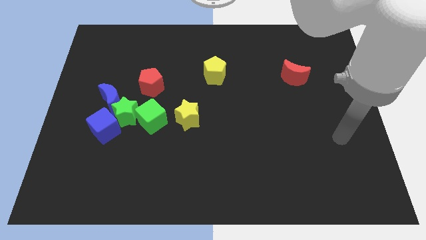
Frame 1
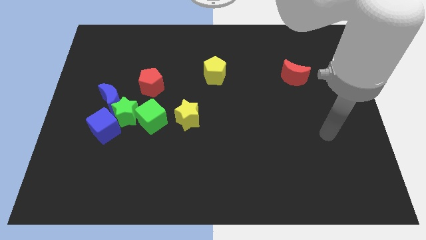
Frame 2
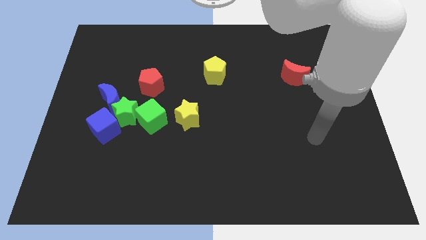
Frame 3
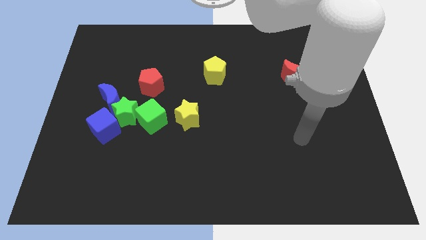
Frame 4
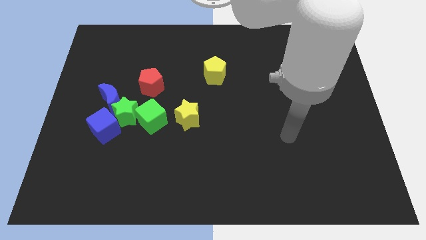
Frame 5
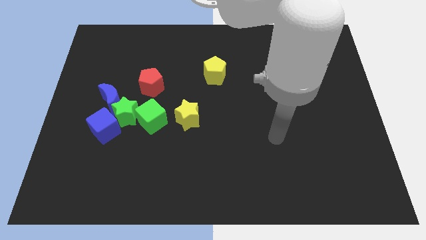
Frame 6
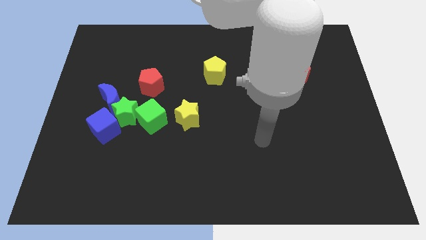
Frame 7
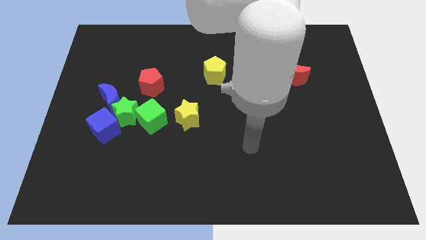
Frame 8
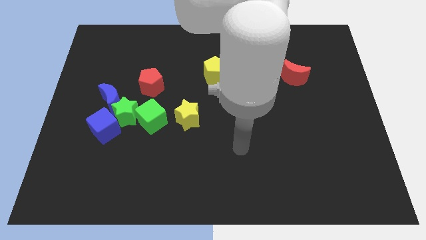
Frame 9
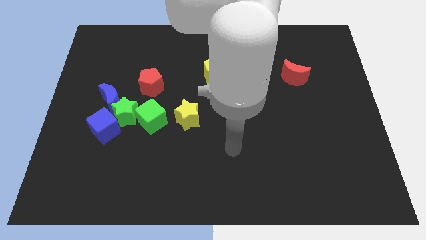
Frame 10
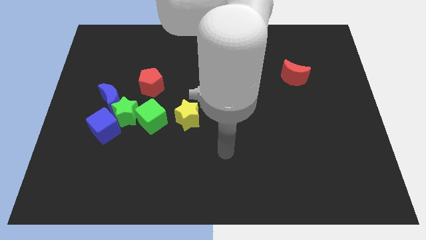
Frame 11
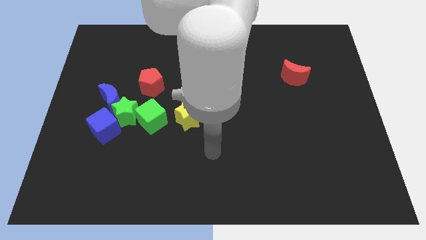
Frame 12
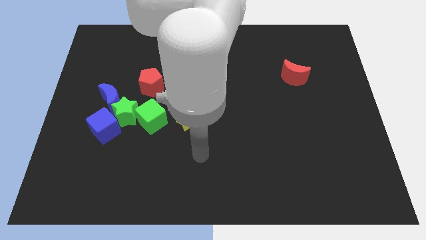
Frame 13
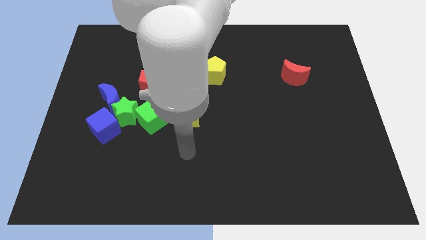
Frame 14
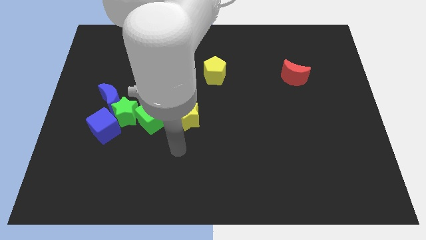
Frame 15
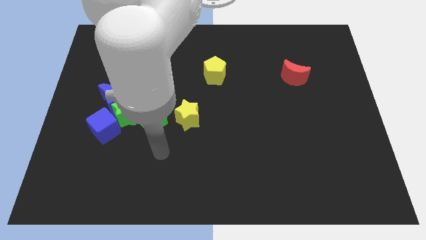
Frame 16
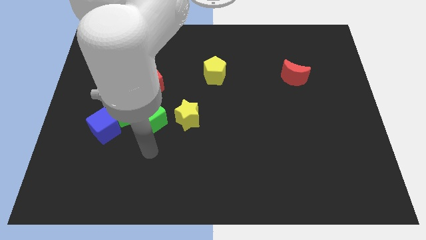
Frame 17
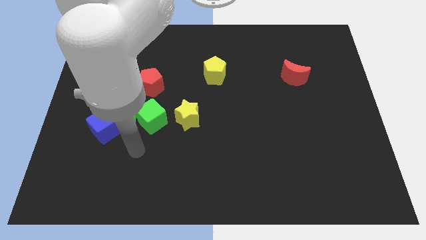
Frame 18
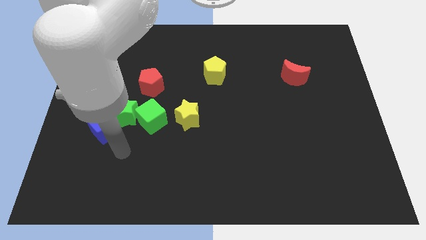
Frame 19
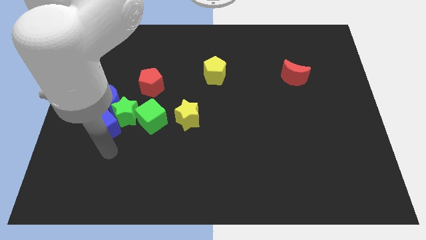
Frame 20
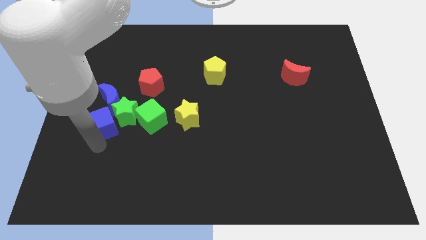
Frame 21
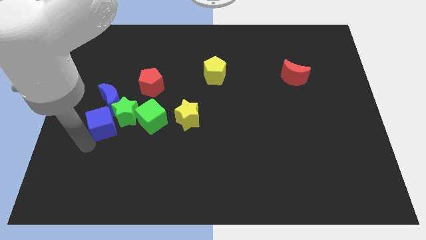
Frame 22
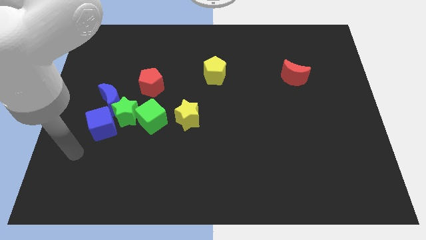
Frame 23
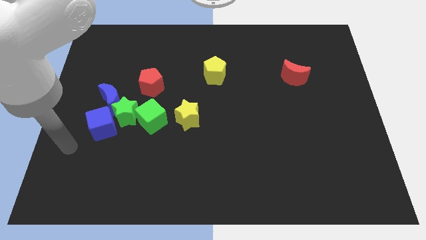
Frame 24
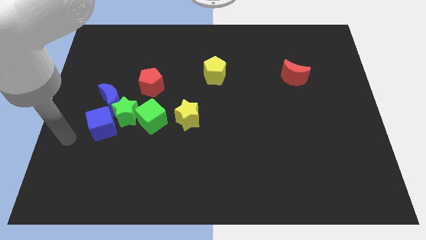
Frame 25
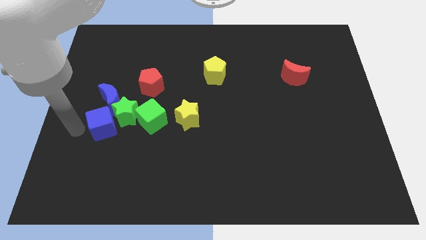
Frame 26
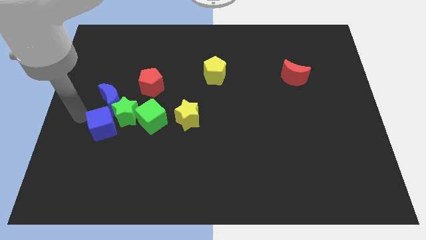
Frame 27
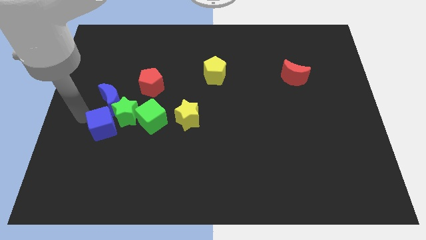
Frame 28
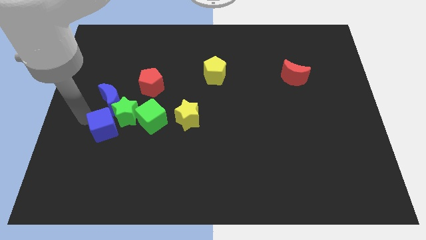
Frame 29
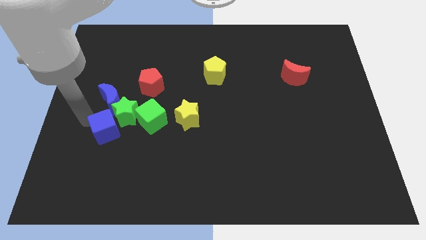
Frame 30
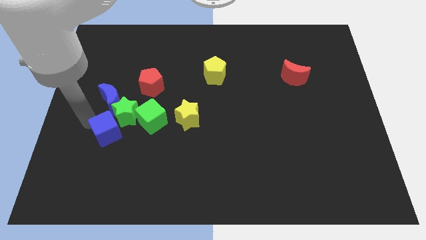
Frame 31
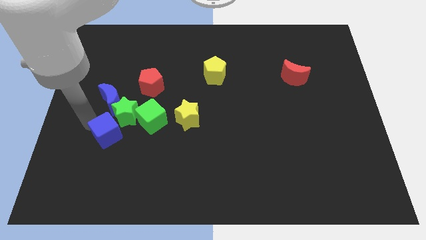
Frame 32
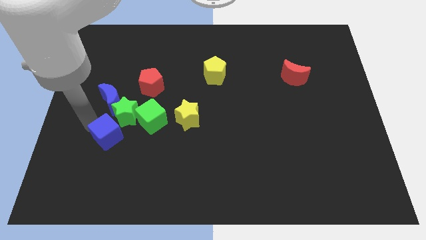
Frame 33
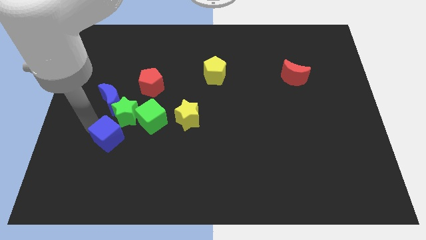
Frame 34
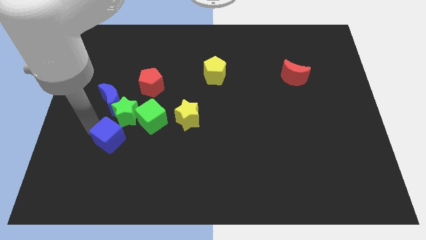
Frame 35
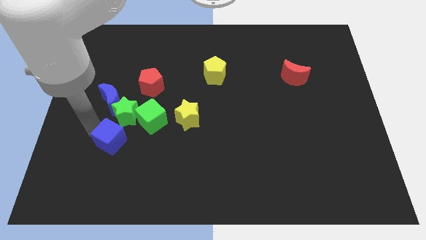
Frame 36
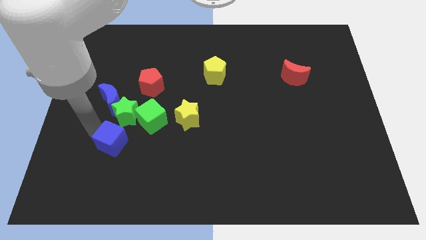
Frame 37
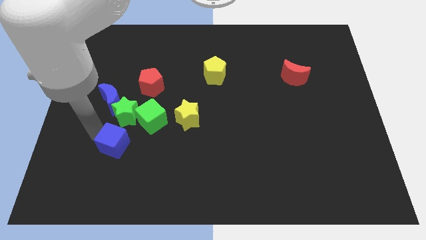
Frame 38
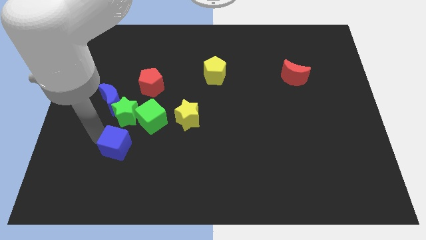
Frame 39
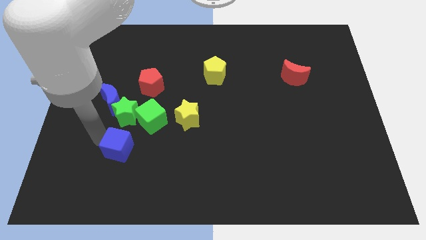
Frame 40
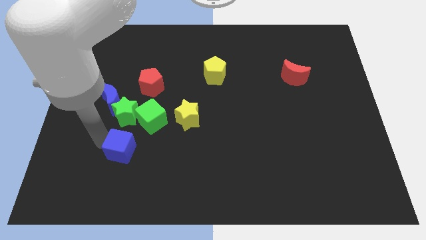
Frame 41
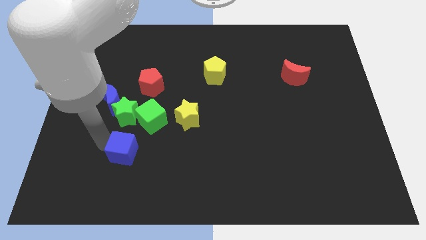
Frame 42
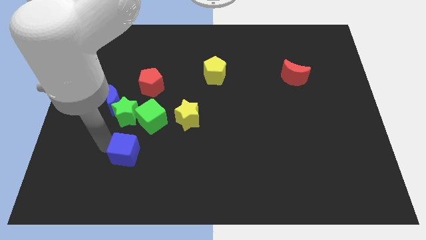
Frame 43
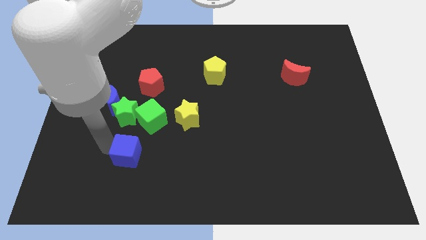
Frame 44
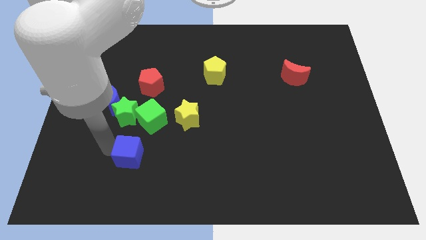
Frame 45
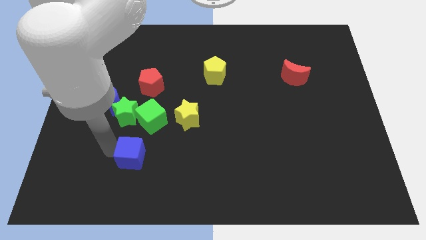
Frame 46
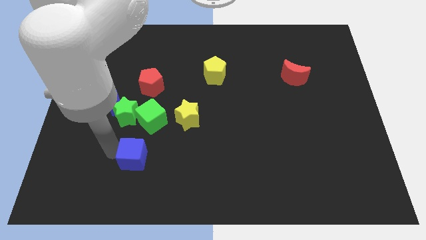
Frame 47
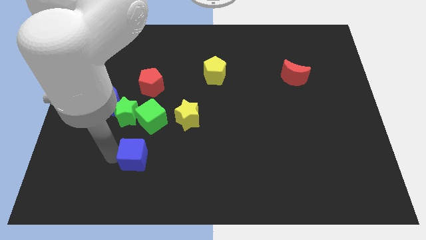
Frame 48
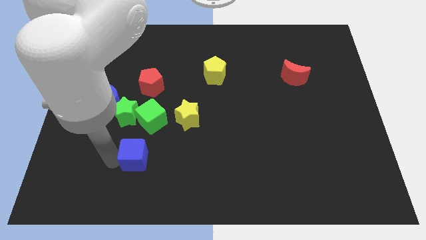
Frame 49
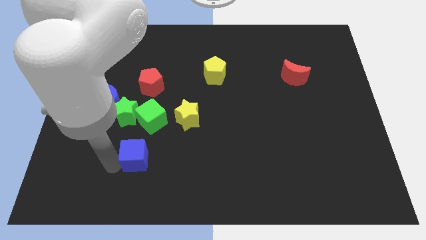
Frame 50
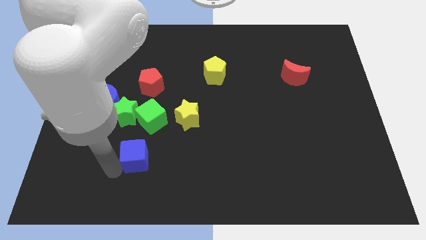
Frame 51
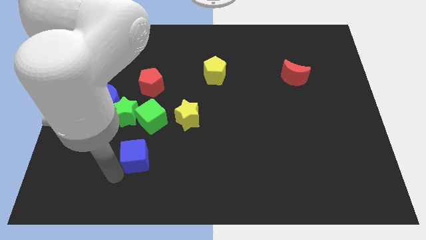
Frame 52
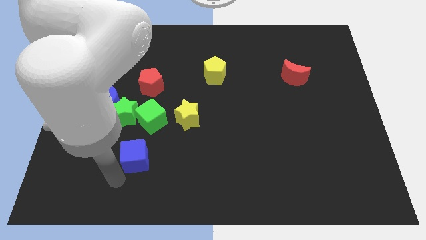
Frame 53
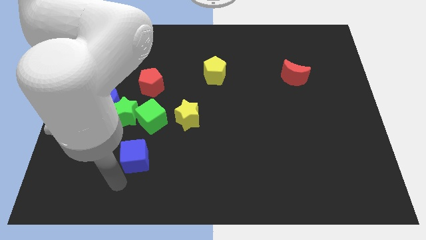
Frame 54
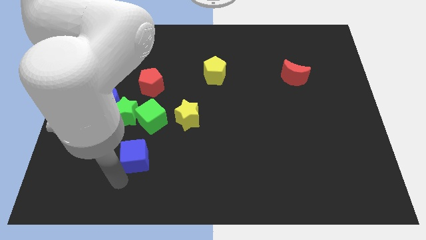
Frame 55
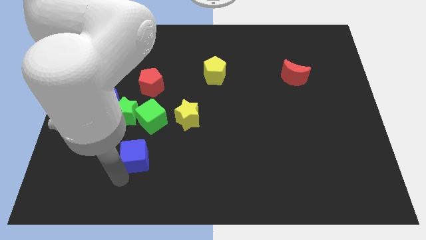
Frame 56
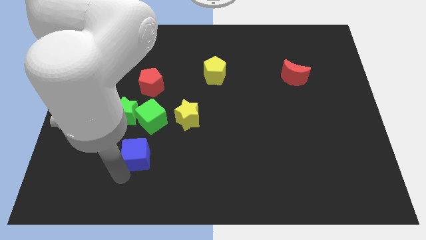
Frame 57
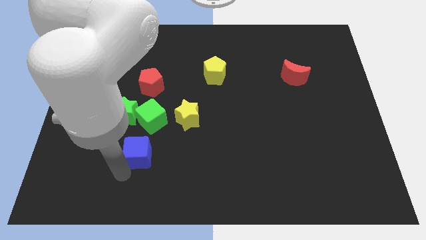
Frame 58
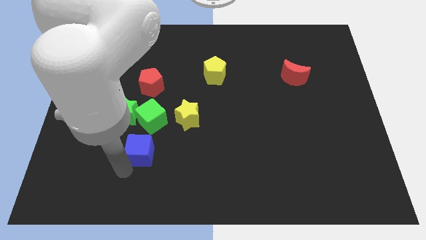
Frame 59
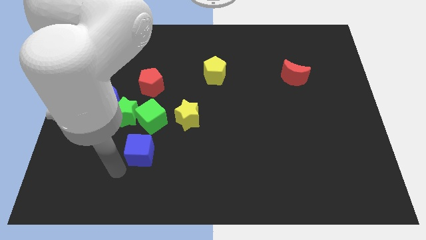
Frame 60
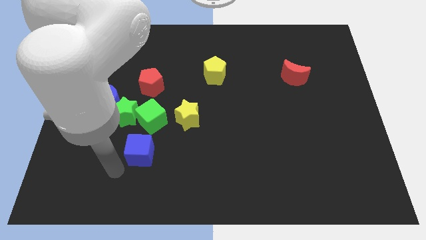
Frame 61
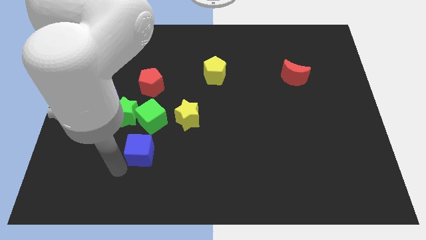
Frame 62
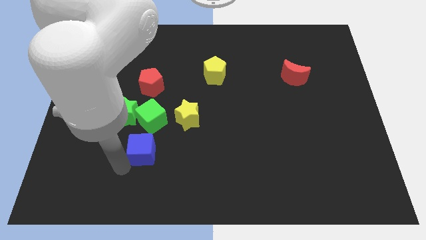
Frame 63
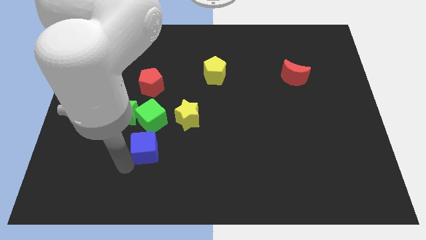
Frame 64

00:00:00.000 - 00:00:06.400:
move the blue cube to the bottom left of the yellow star

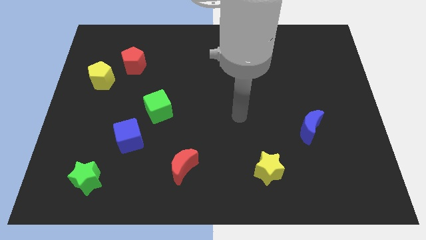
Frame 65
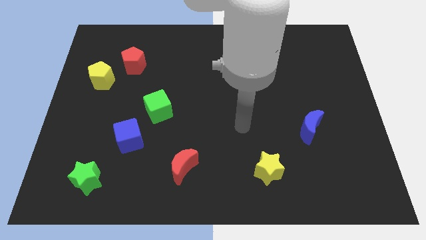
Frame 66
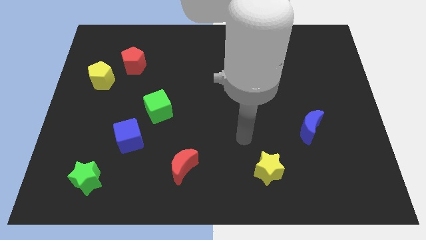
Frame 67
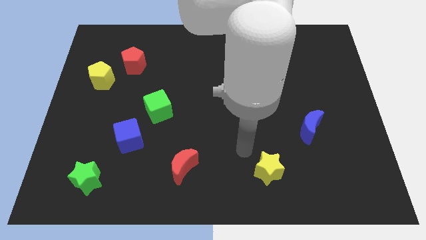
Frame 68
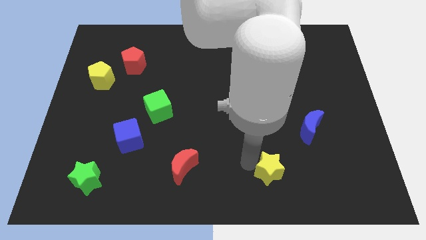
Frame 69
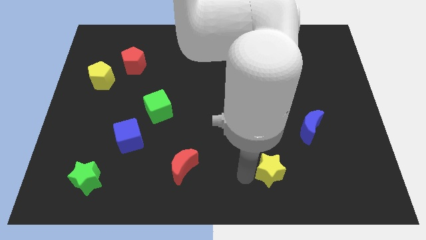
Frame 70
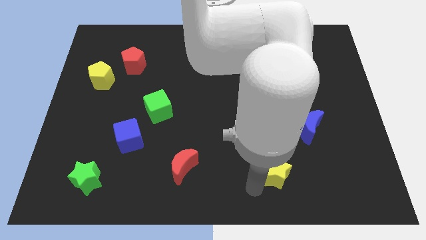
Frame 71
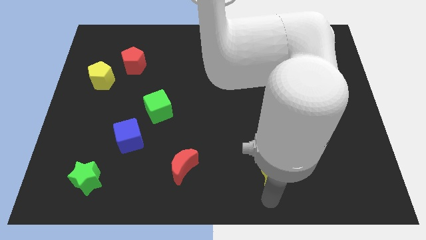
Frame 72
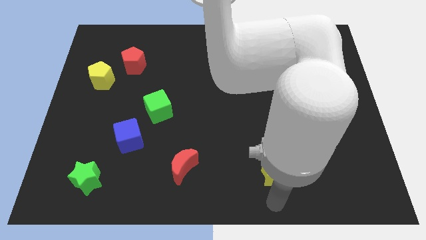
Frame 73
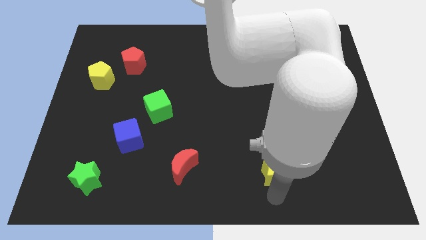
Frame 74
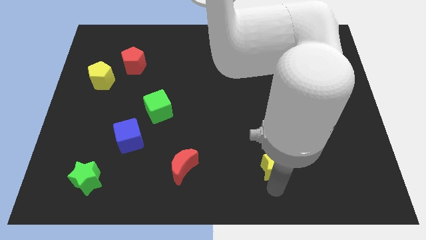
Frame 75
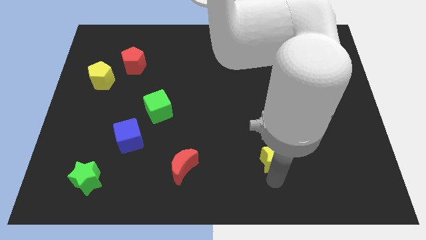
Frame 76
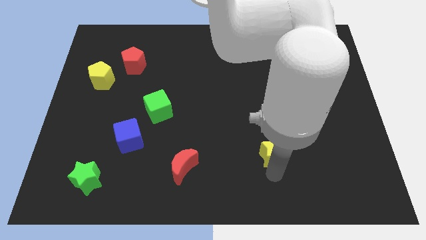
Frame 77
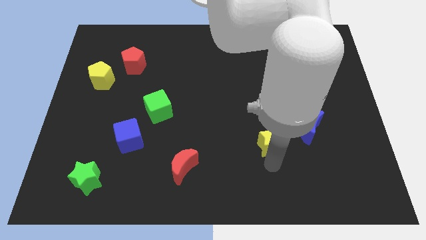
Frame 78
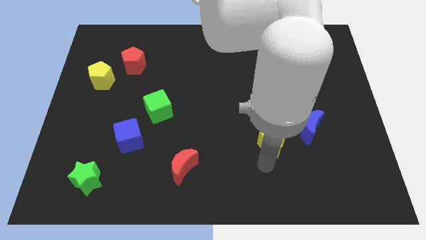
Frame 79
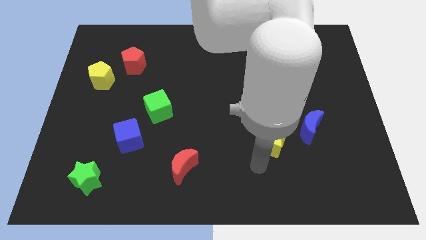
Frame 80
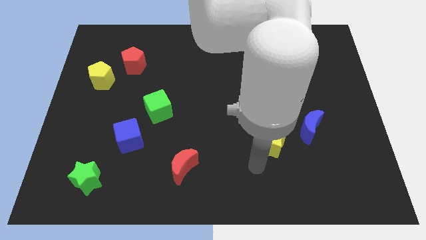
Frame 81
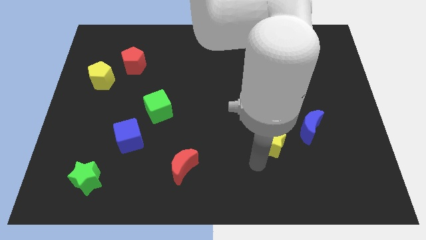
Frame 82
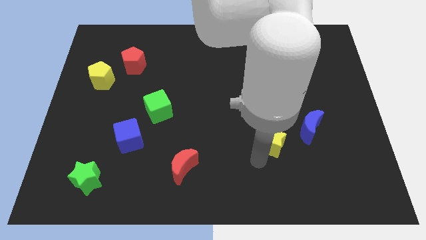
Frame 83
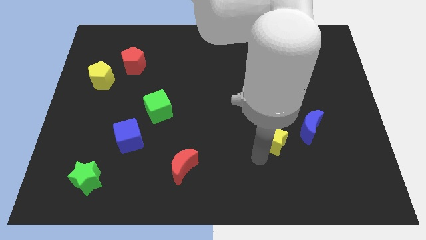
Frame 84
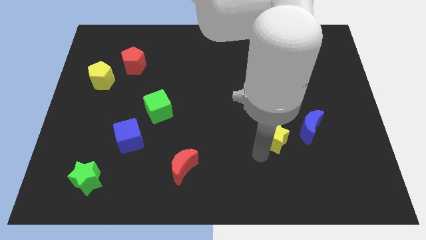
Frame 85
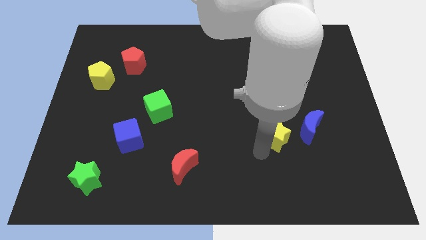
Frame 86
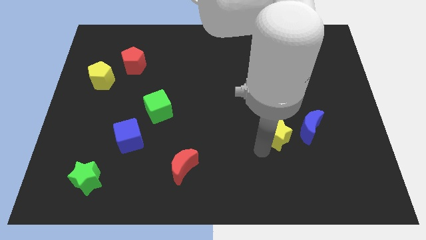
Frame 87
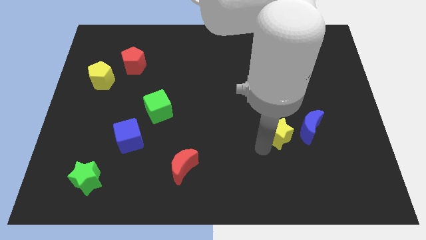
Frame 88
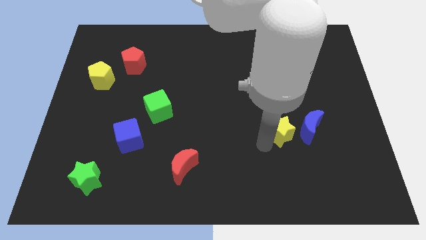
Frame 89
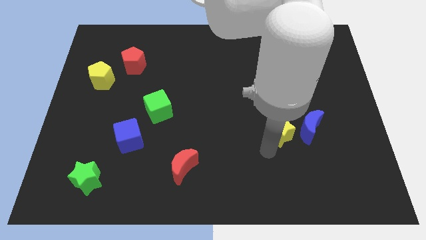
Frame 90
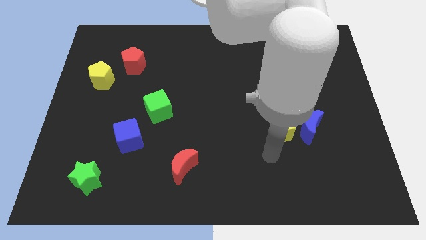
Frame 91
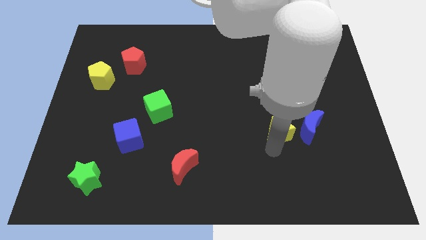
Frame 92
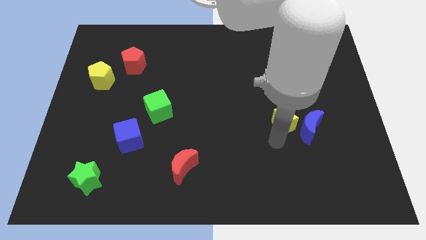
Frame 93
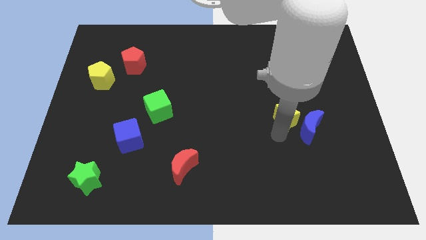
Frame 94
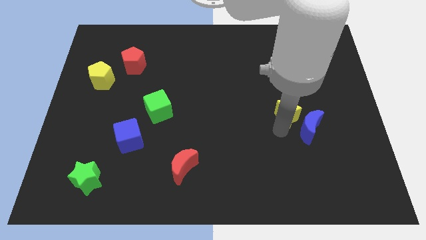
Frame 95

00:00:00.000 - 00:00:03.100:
push the yellow star to the top of the blue moon
